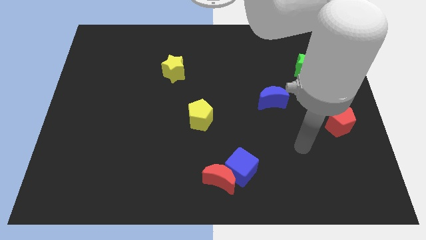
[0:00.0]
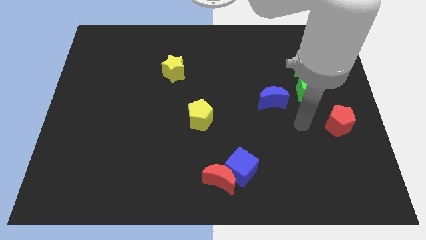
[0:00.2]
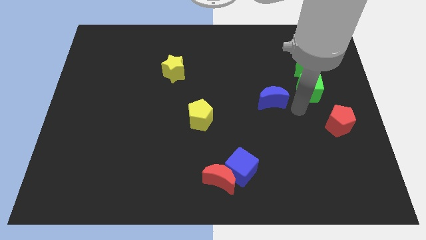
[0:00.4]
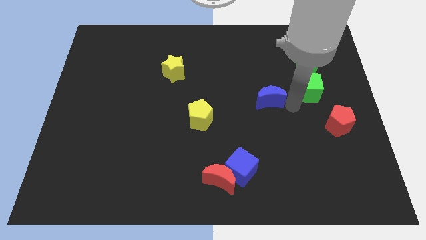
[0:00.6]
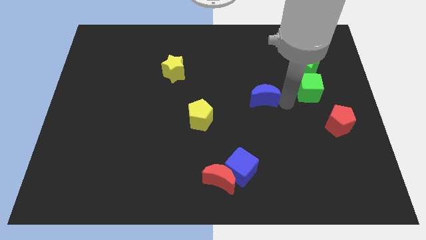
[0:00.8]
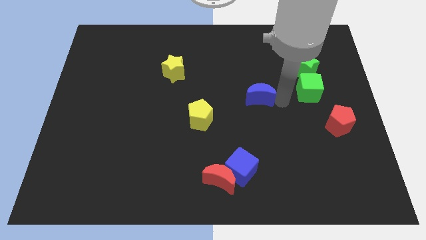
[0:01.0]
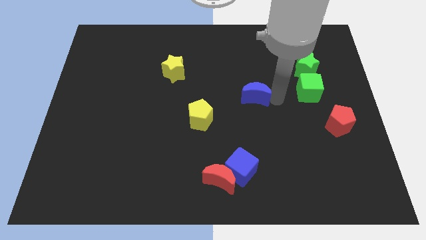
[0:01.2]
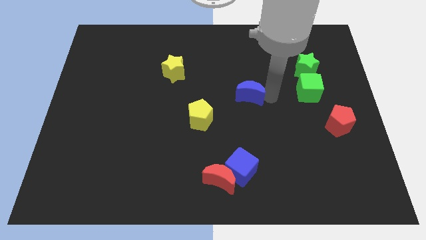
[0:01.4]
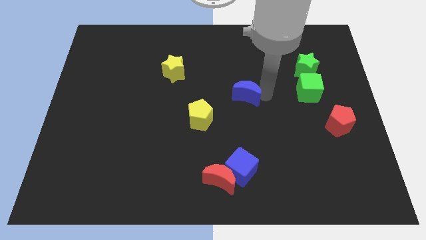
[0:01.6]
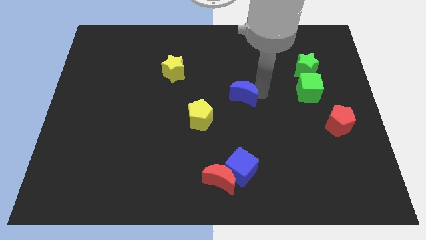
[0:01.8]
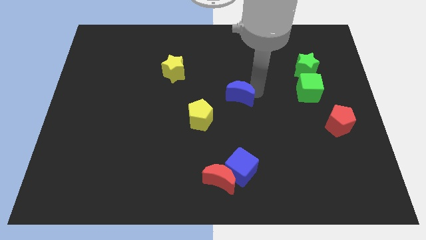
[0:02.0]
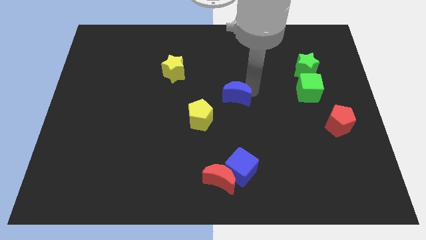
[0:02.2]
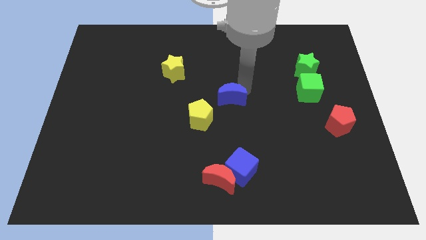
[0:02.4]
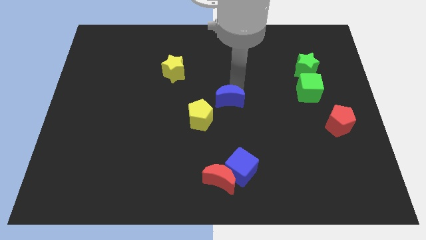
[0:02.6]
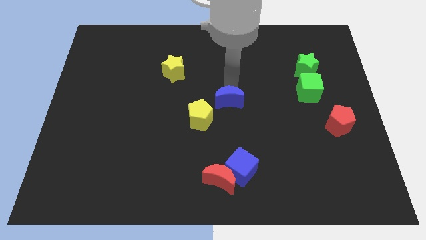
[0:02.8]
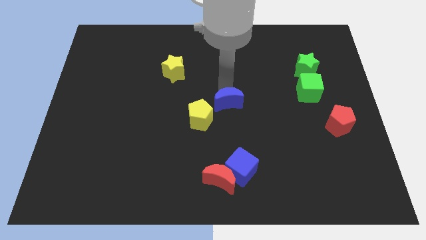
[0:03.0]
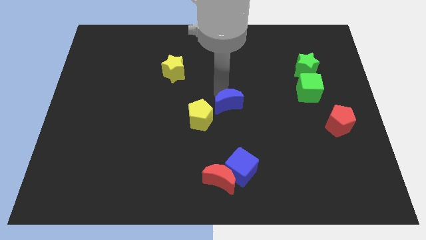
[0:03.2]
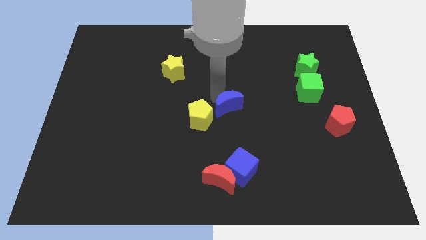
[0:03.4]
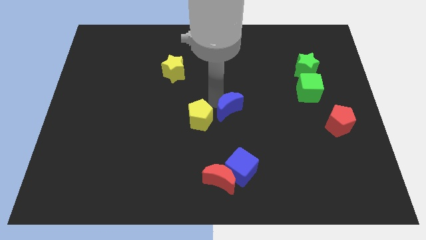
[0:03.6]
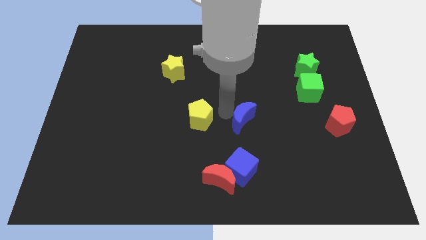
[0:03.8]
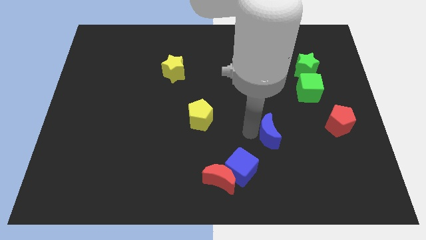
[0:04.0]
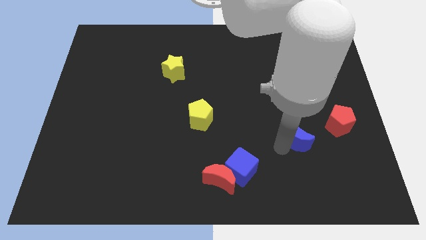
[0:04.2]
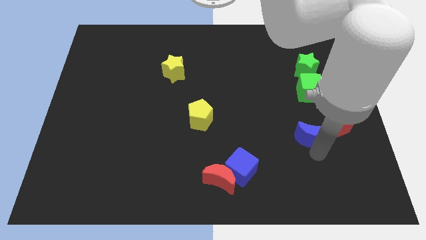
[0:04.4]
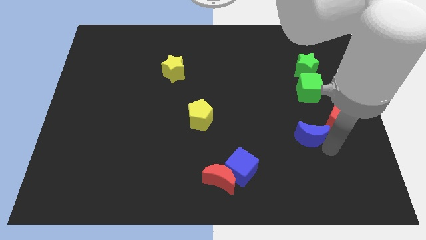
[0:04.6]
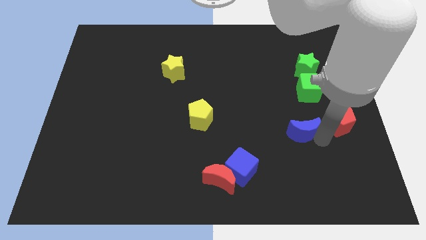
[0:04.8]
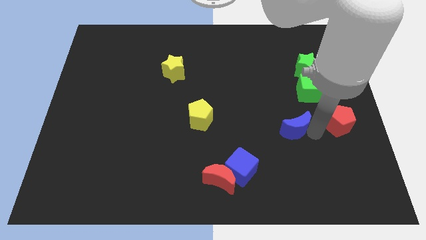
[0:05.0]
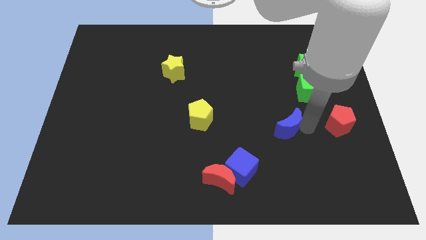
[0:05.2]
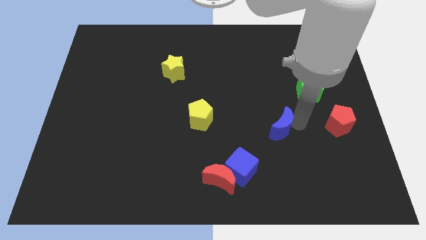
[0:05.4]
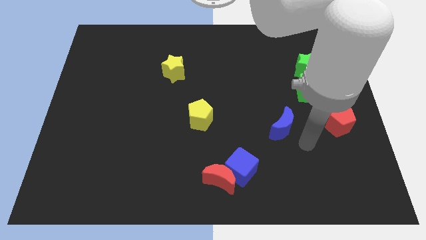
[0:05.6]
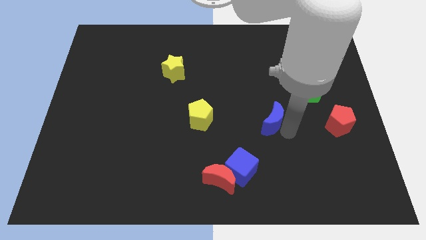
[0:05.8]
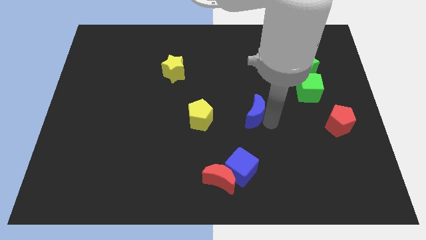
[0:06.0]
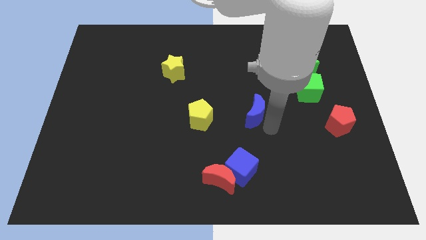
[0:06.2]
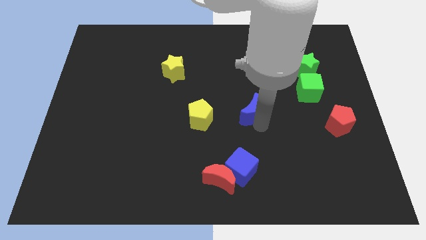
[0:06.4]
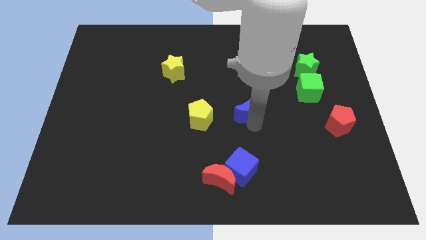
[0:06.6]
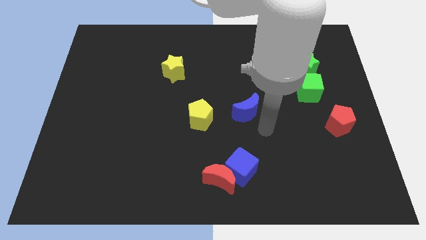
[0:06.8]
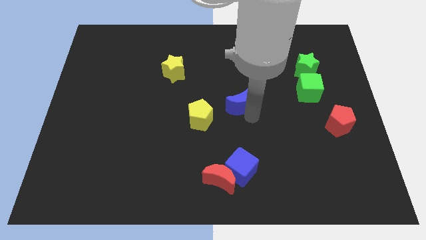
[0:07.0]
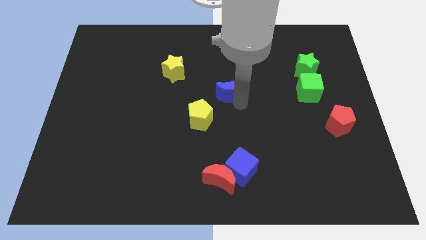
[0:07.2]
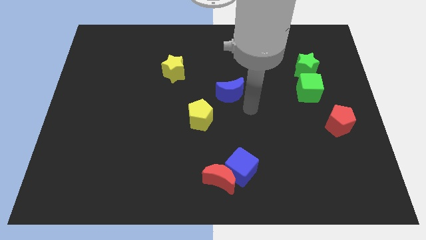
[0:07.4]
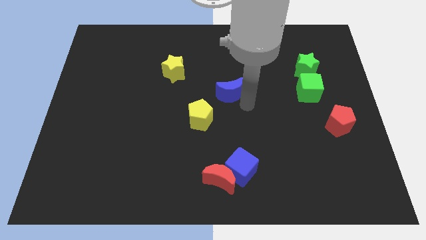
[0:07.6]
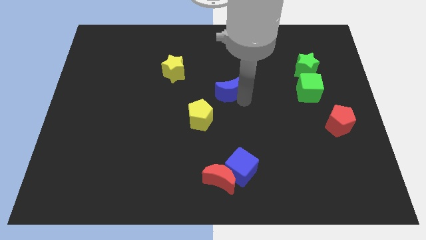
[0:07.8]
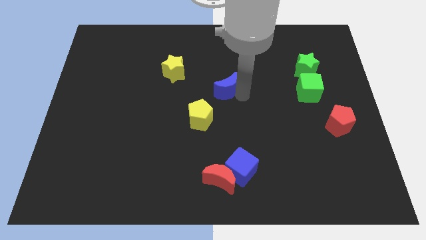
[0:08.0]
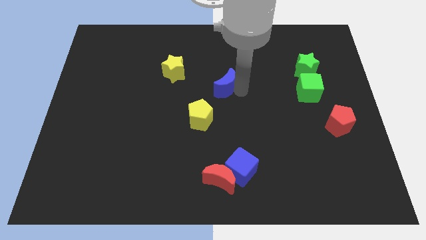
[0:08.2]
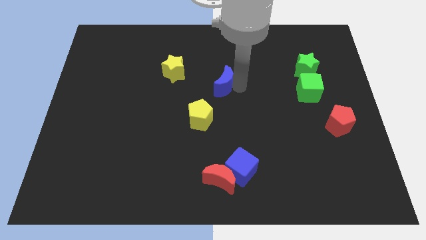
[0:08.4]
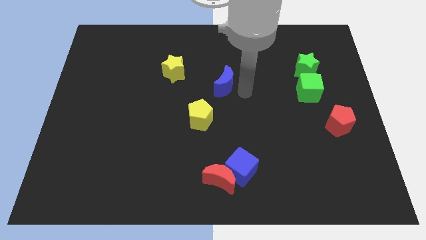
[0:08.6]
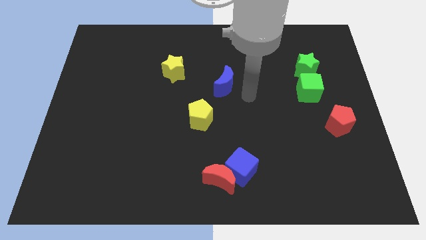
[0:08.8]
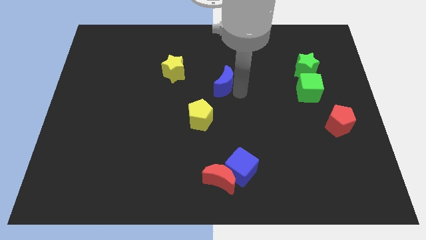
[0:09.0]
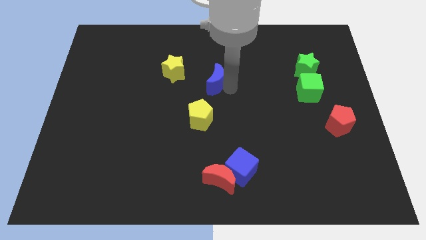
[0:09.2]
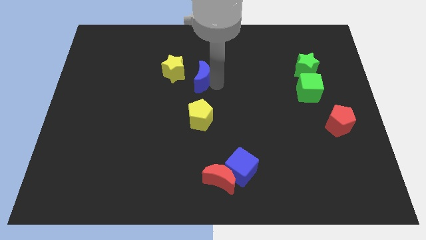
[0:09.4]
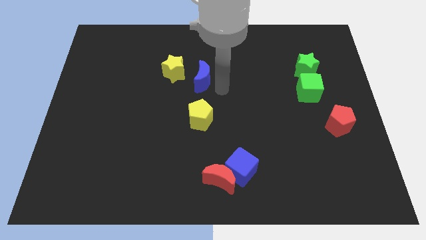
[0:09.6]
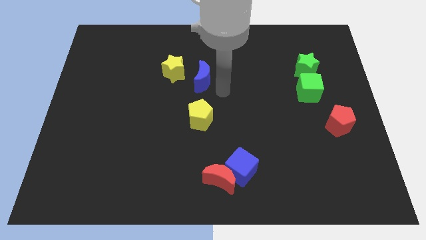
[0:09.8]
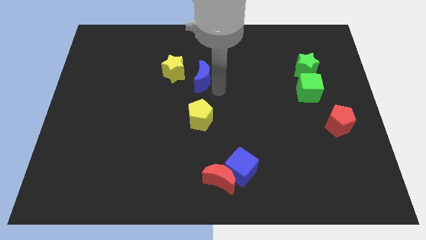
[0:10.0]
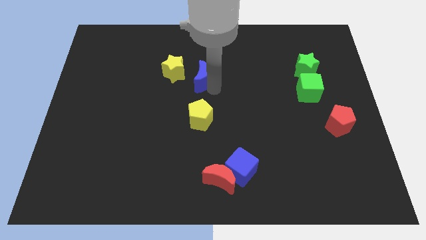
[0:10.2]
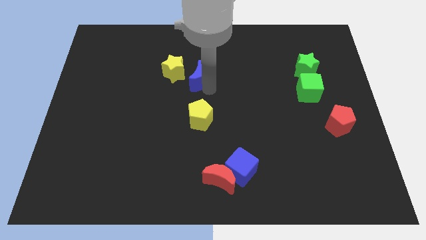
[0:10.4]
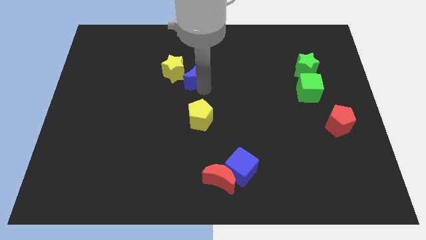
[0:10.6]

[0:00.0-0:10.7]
put the blue moon close to the yellow star

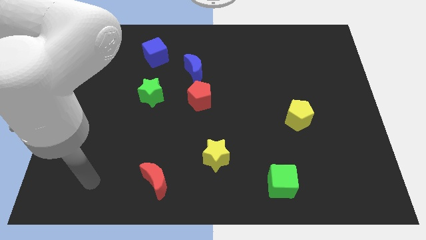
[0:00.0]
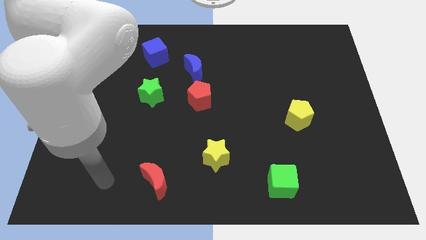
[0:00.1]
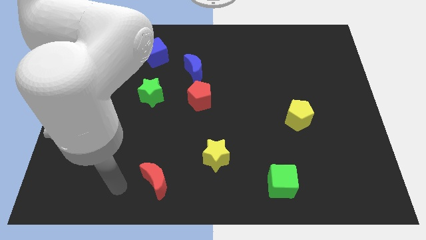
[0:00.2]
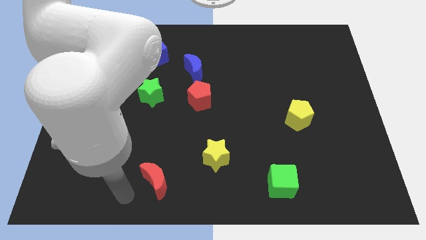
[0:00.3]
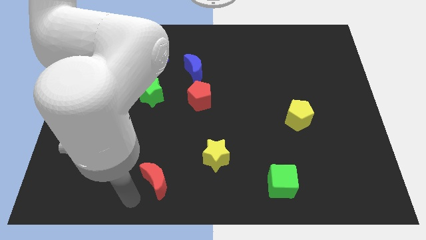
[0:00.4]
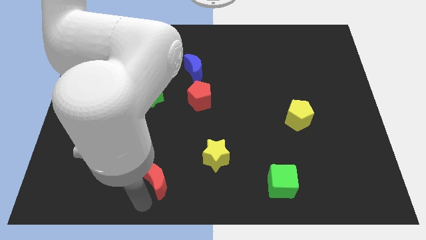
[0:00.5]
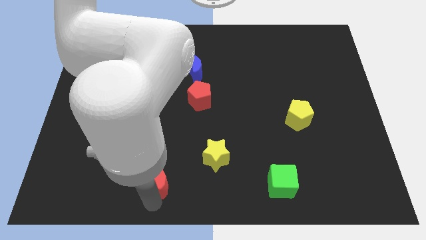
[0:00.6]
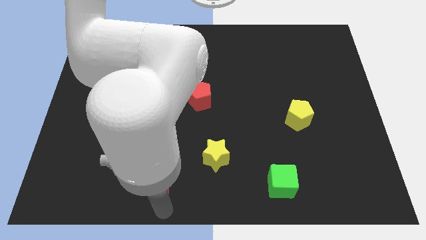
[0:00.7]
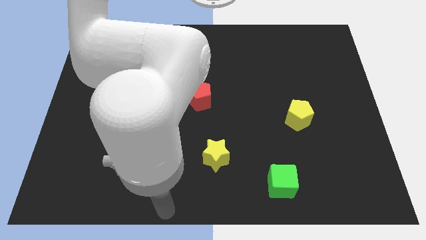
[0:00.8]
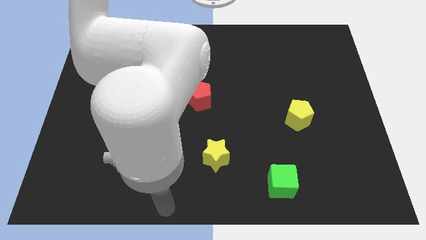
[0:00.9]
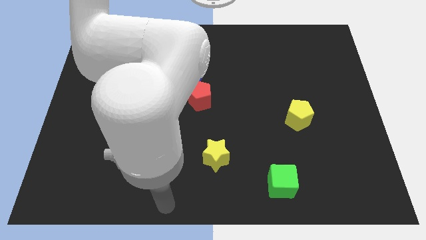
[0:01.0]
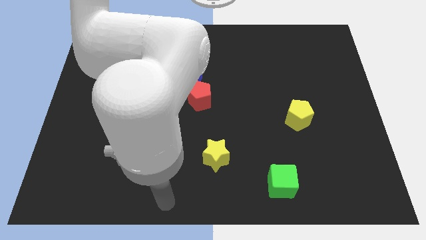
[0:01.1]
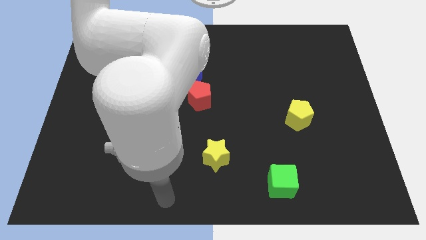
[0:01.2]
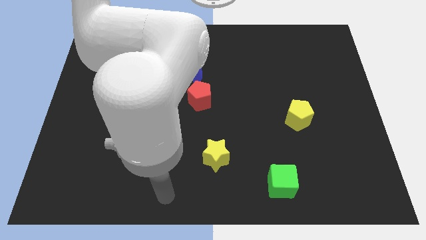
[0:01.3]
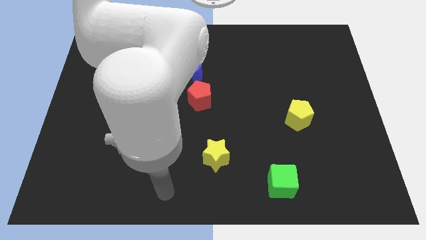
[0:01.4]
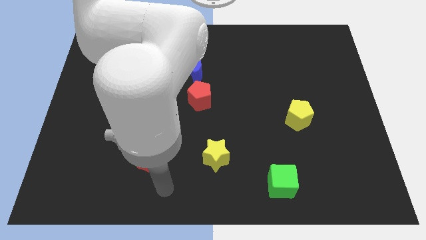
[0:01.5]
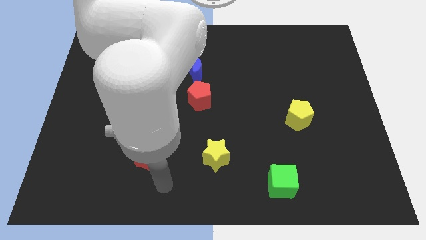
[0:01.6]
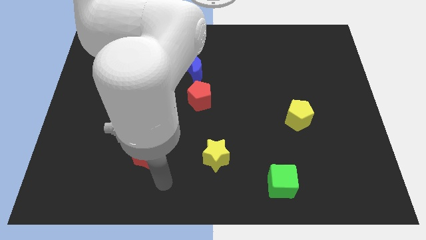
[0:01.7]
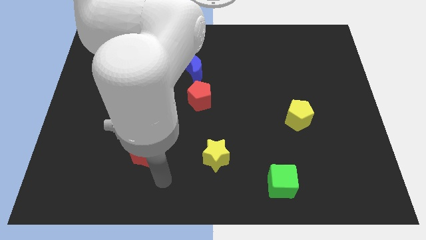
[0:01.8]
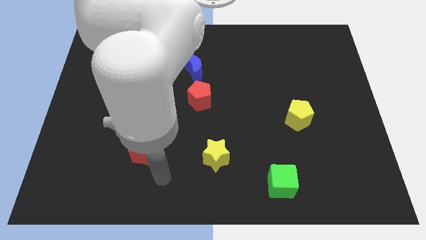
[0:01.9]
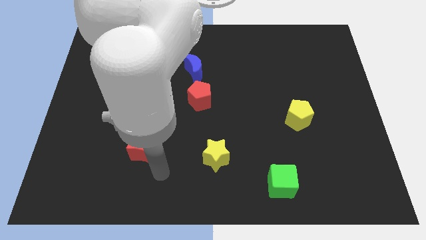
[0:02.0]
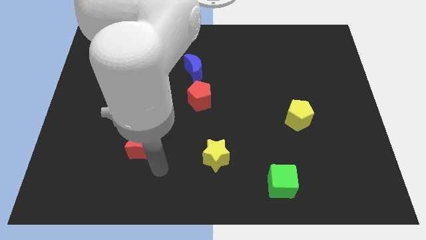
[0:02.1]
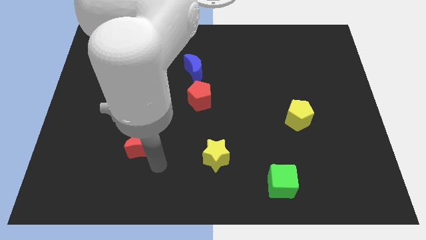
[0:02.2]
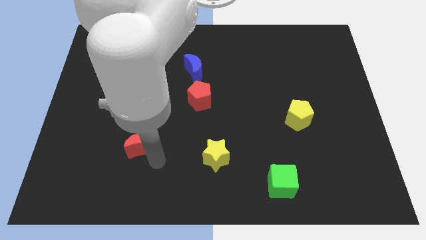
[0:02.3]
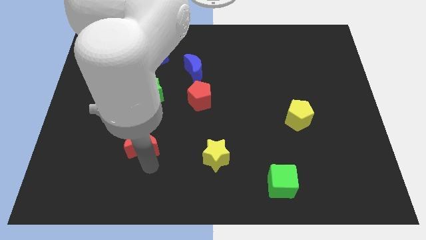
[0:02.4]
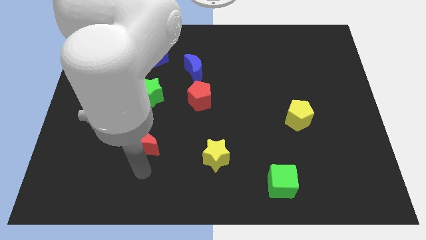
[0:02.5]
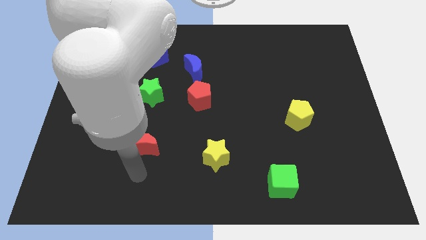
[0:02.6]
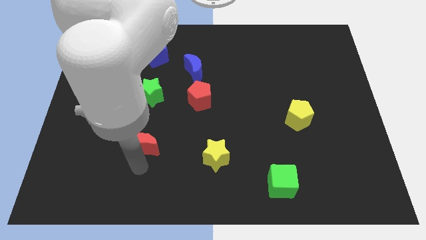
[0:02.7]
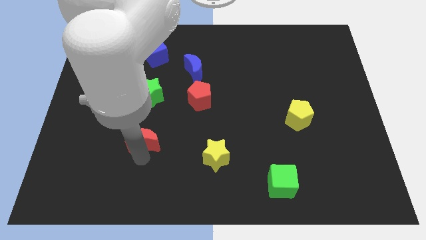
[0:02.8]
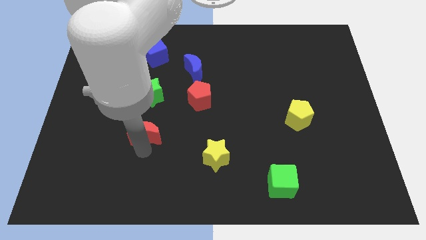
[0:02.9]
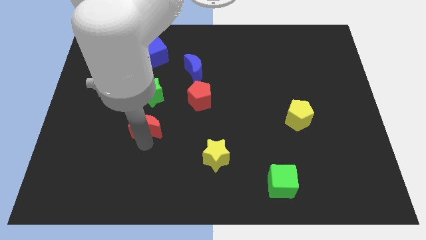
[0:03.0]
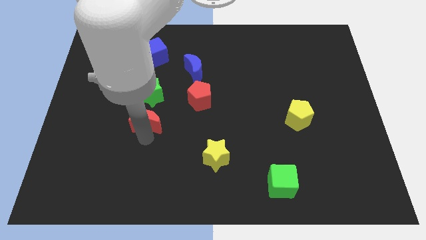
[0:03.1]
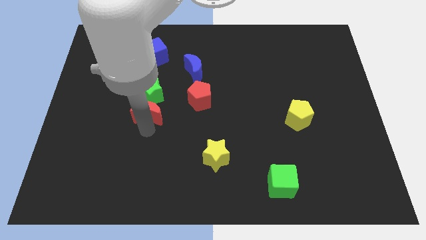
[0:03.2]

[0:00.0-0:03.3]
push the red moon next to the green star
